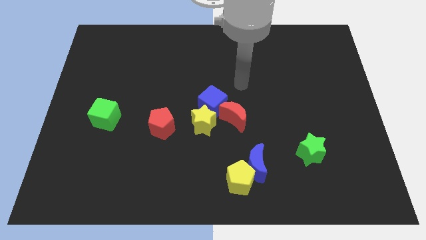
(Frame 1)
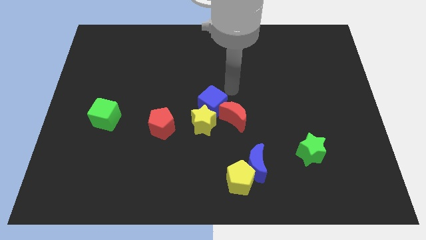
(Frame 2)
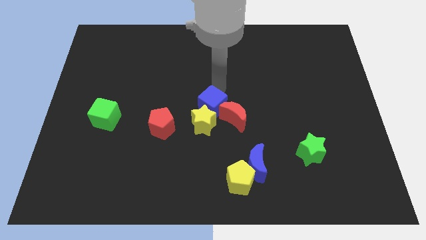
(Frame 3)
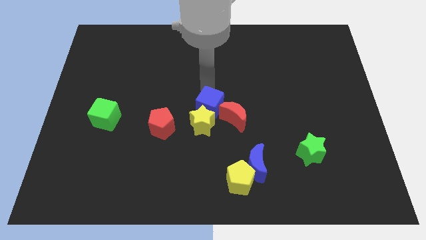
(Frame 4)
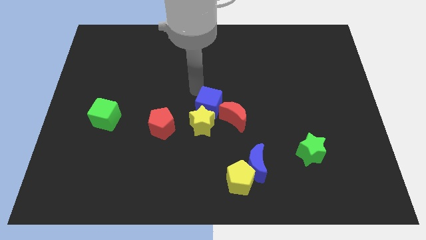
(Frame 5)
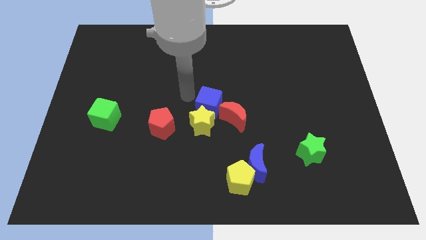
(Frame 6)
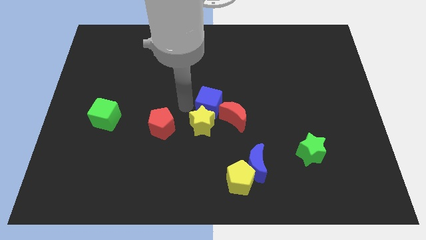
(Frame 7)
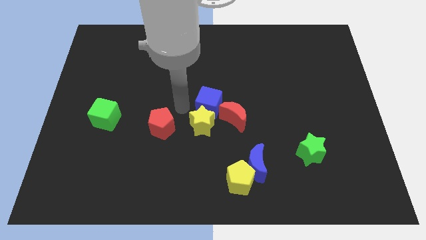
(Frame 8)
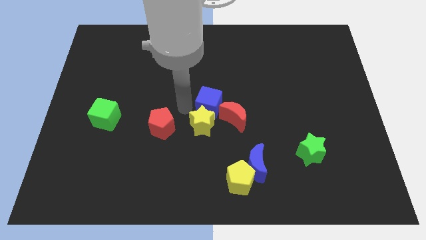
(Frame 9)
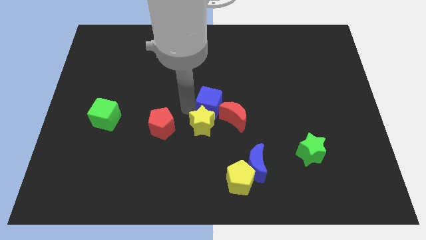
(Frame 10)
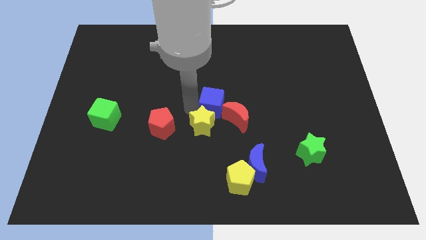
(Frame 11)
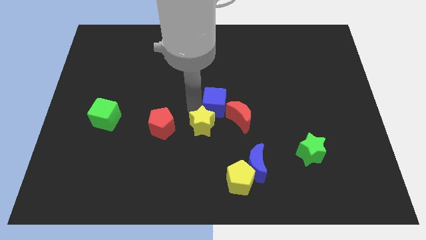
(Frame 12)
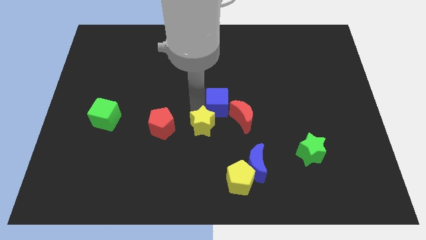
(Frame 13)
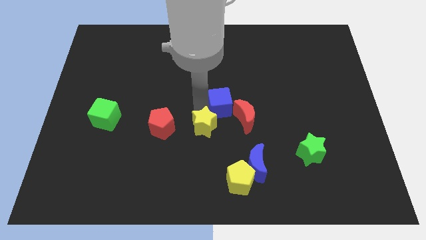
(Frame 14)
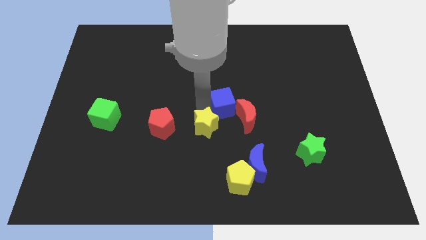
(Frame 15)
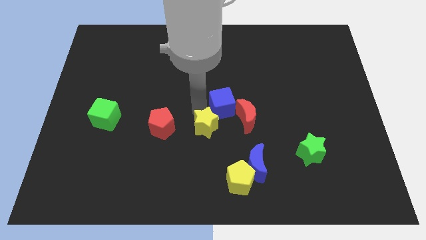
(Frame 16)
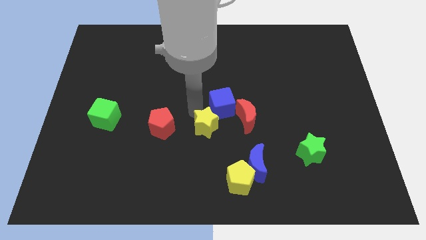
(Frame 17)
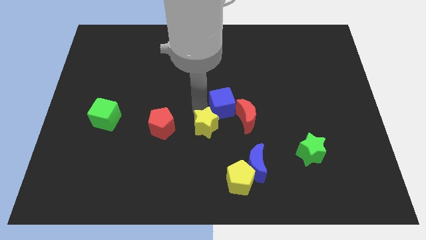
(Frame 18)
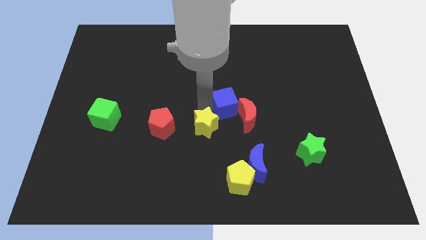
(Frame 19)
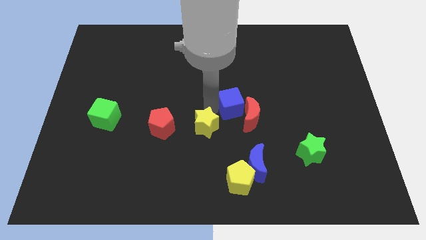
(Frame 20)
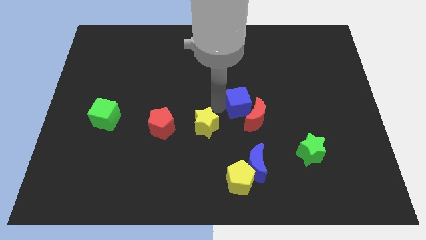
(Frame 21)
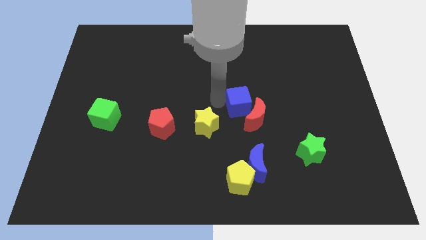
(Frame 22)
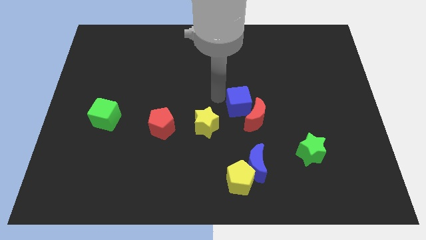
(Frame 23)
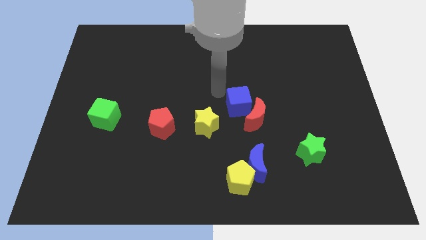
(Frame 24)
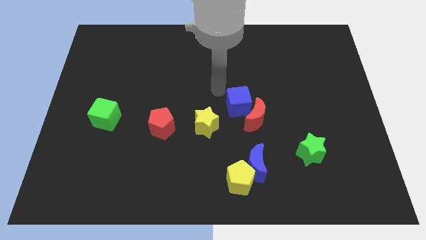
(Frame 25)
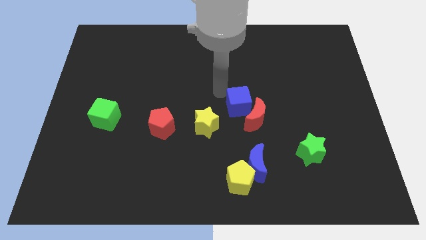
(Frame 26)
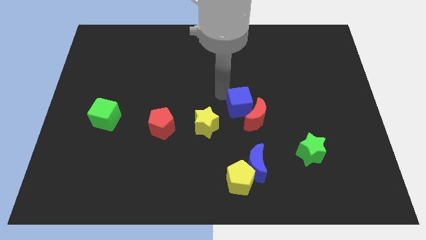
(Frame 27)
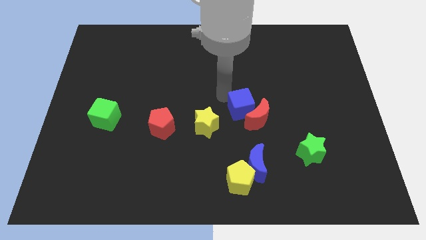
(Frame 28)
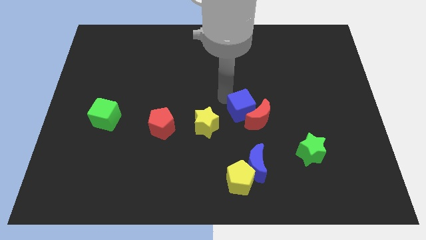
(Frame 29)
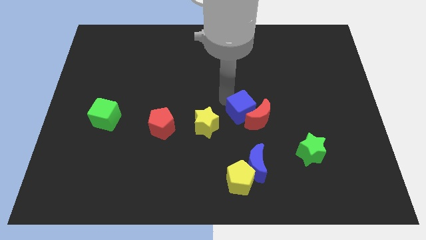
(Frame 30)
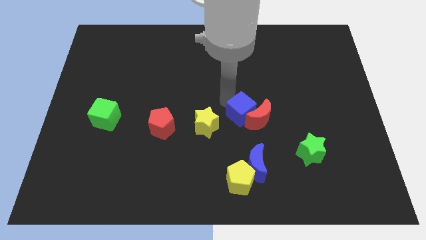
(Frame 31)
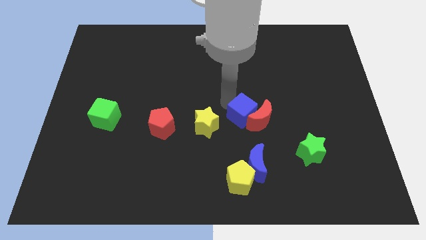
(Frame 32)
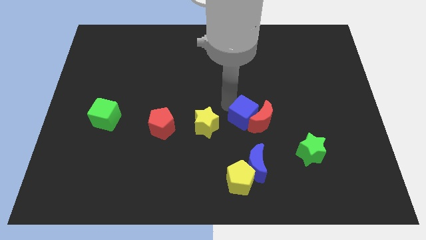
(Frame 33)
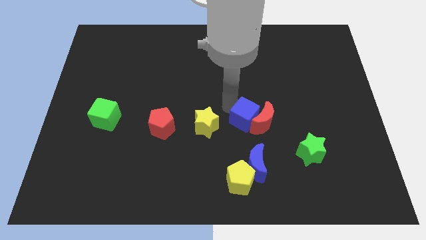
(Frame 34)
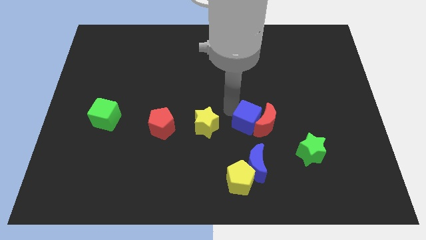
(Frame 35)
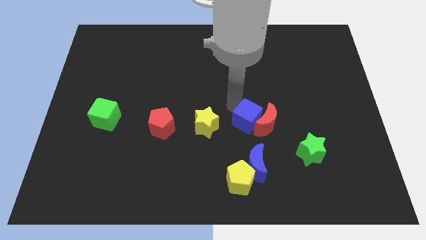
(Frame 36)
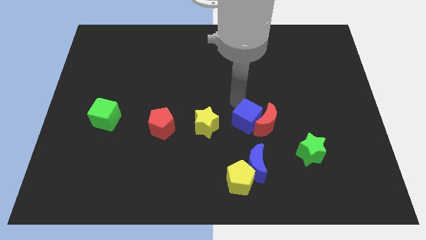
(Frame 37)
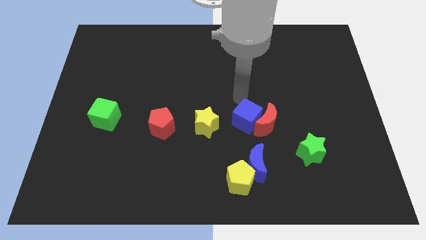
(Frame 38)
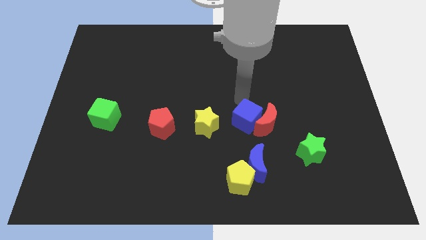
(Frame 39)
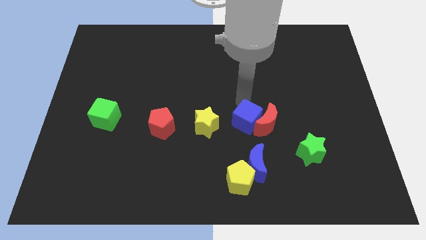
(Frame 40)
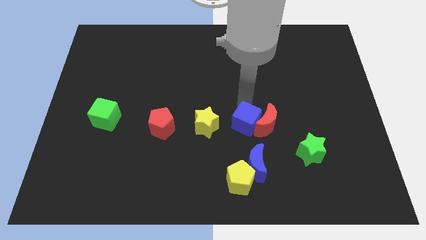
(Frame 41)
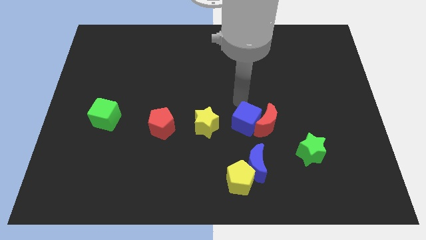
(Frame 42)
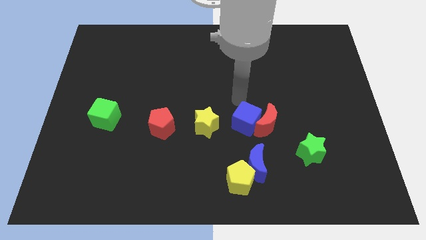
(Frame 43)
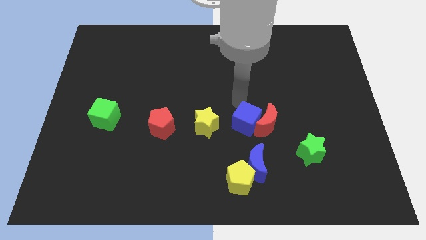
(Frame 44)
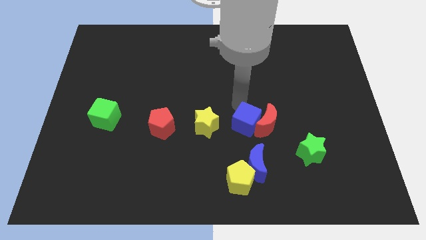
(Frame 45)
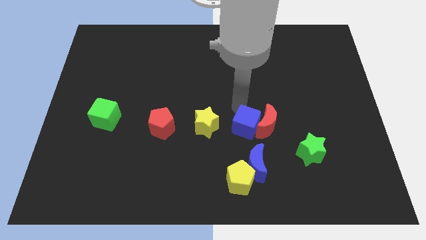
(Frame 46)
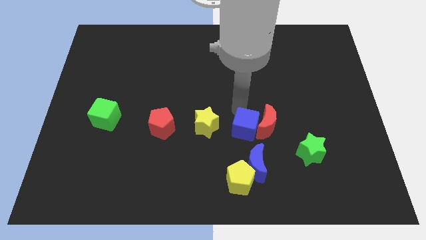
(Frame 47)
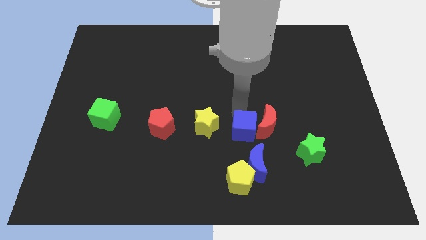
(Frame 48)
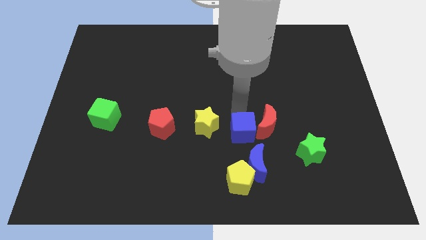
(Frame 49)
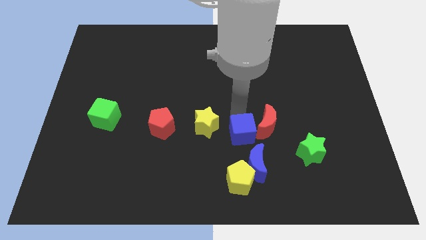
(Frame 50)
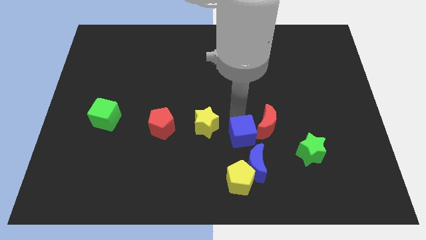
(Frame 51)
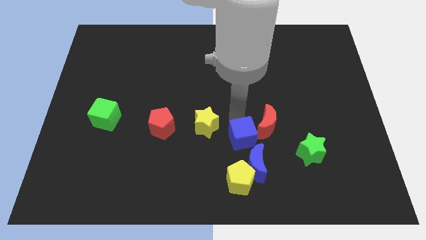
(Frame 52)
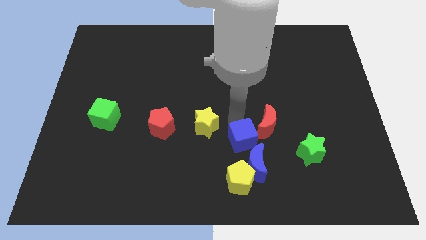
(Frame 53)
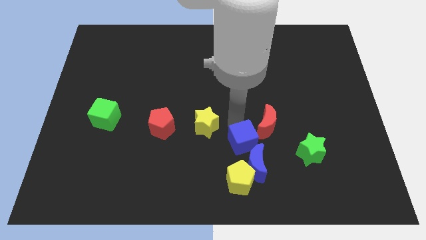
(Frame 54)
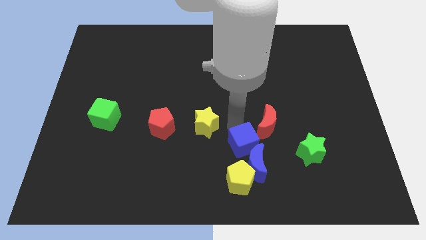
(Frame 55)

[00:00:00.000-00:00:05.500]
push the blue cube towards the blue moon

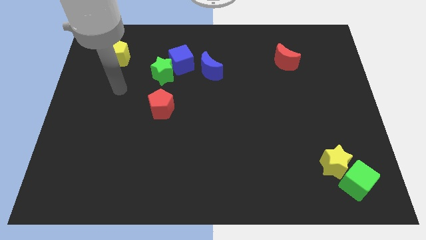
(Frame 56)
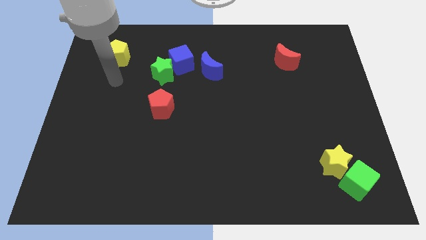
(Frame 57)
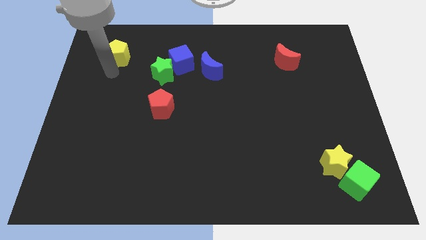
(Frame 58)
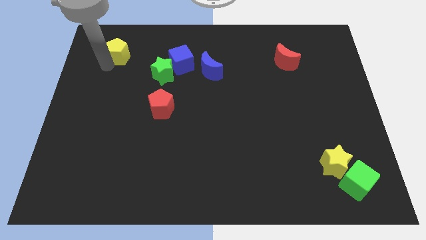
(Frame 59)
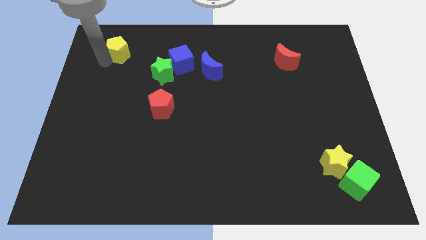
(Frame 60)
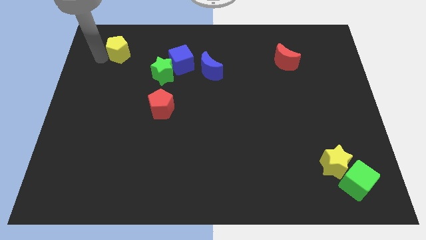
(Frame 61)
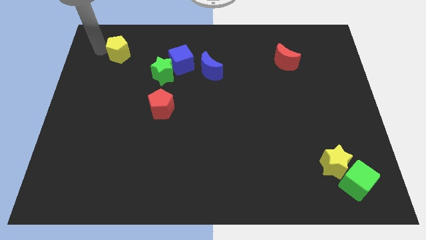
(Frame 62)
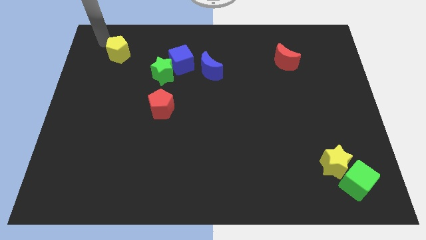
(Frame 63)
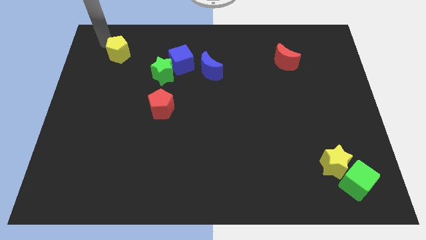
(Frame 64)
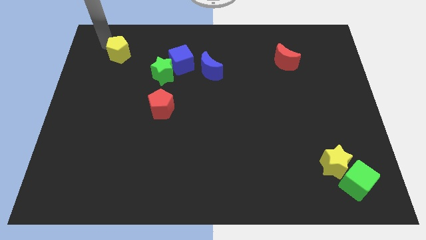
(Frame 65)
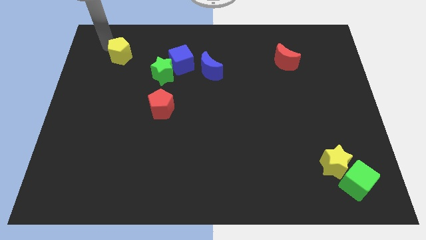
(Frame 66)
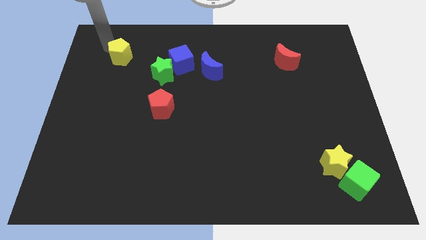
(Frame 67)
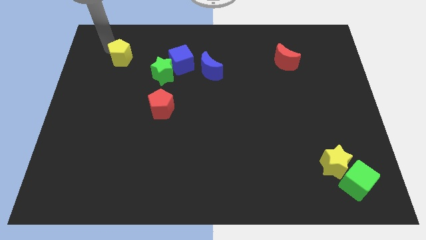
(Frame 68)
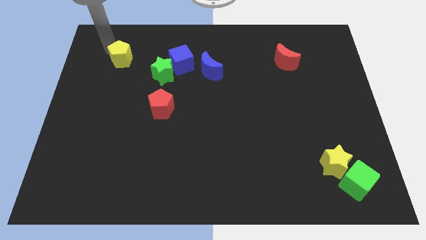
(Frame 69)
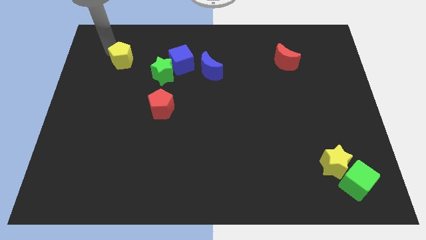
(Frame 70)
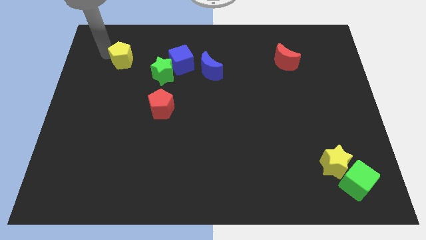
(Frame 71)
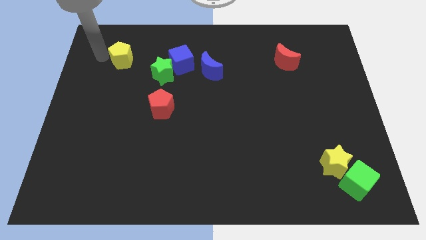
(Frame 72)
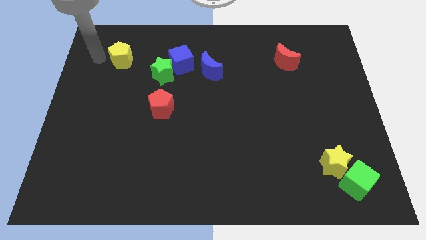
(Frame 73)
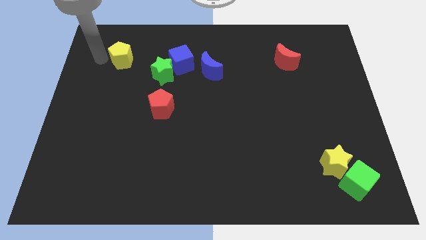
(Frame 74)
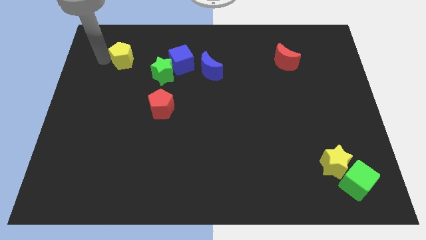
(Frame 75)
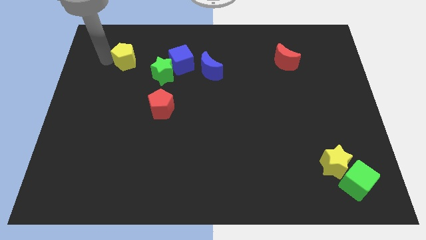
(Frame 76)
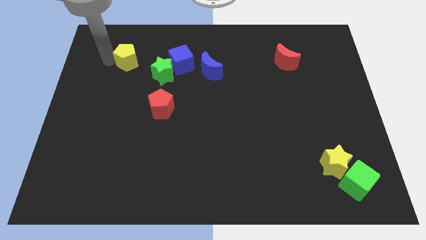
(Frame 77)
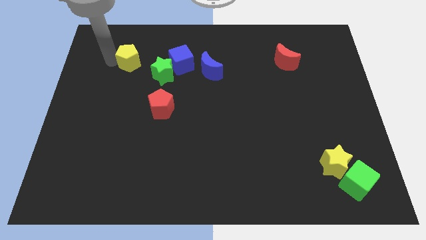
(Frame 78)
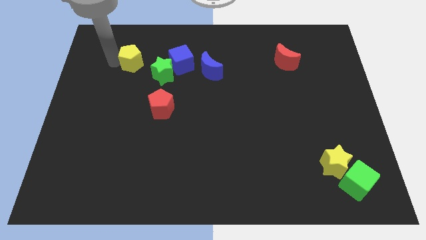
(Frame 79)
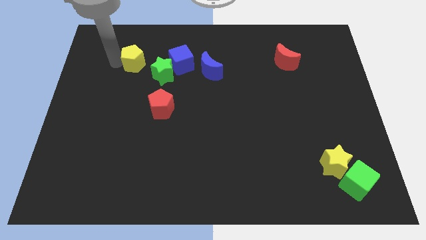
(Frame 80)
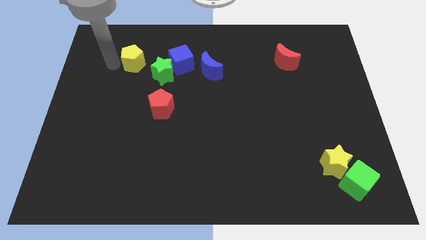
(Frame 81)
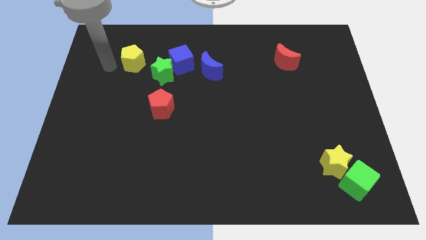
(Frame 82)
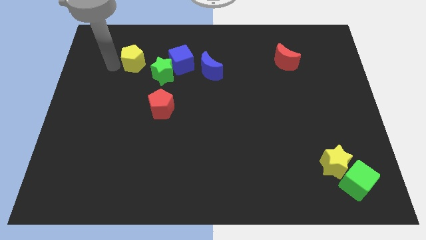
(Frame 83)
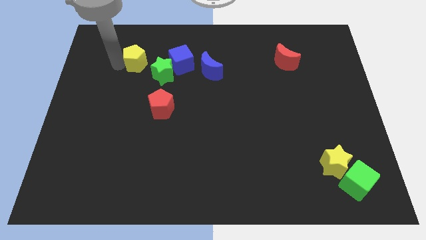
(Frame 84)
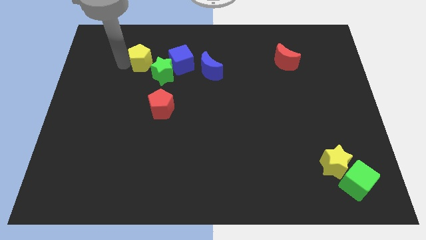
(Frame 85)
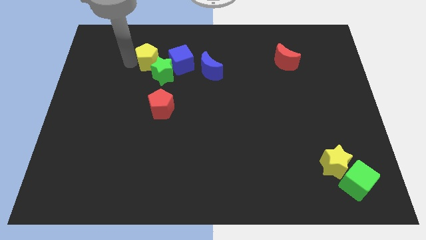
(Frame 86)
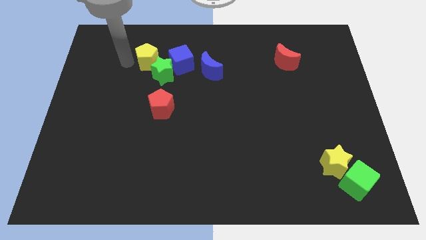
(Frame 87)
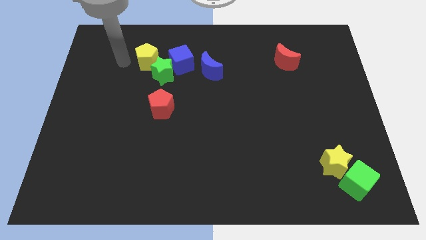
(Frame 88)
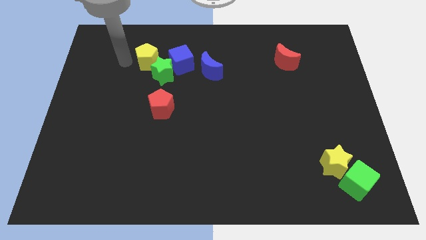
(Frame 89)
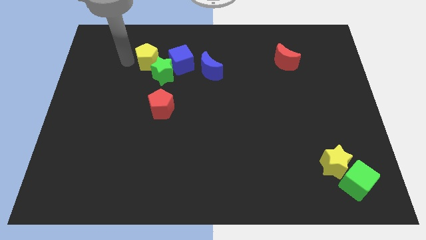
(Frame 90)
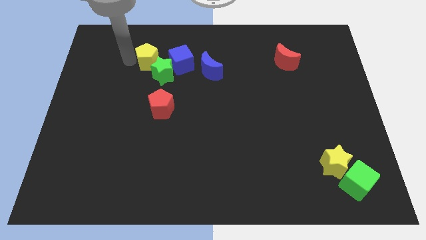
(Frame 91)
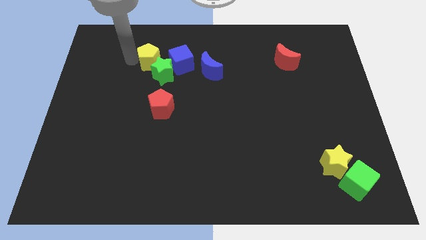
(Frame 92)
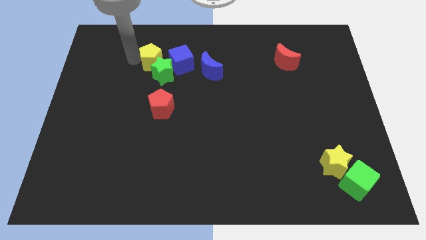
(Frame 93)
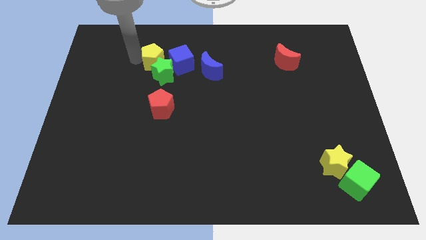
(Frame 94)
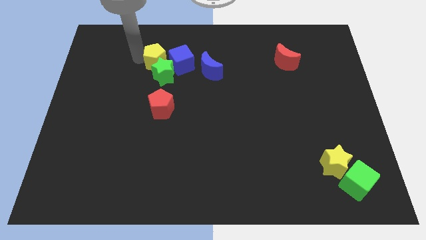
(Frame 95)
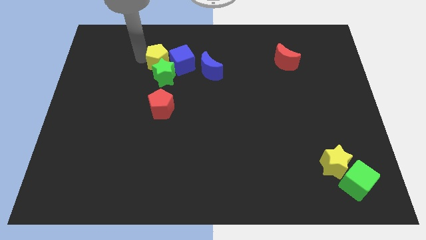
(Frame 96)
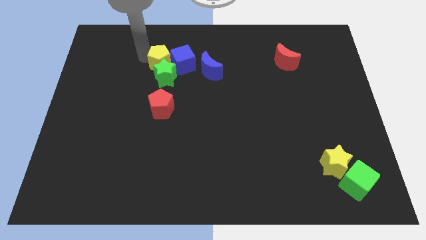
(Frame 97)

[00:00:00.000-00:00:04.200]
move the yellow pentagon towards the blue cube
